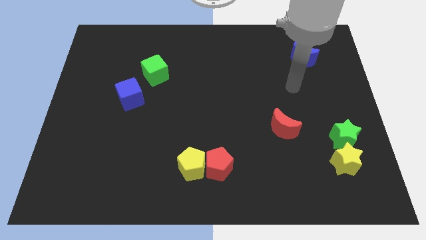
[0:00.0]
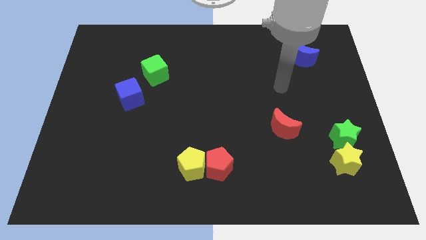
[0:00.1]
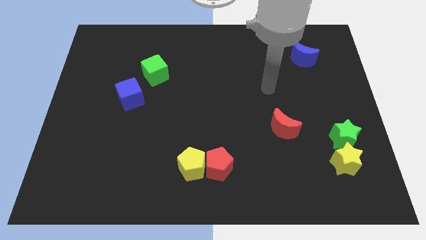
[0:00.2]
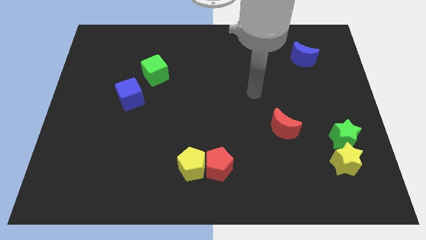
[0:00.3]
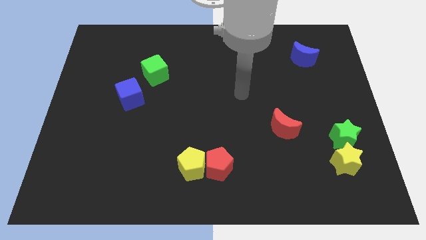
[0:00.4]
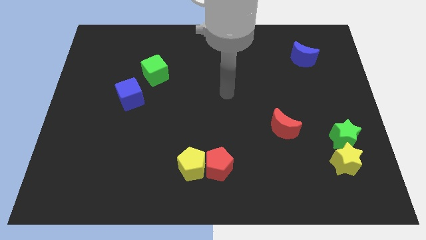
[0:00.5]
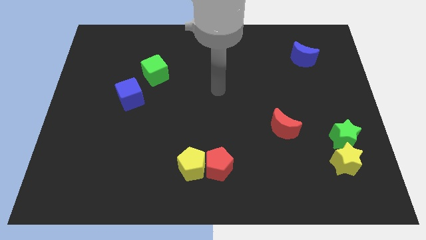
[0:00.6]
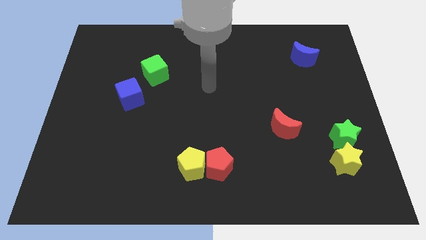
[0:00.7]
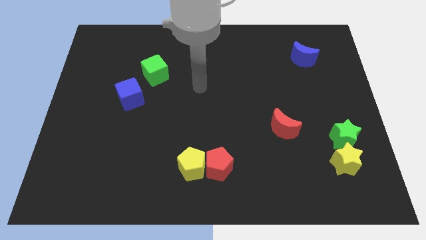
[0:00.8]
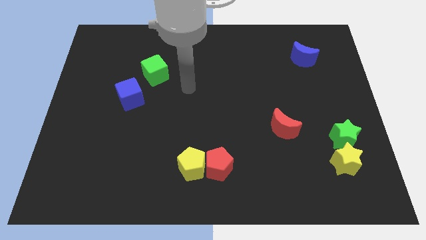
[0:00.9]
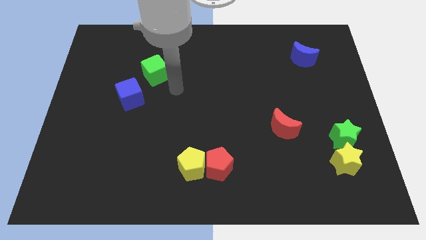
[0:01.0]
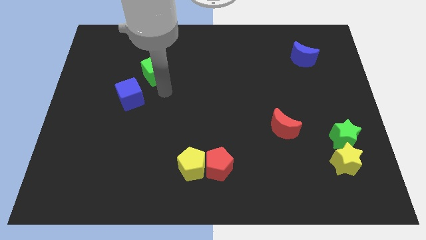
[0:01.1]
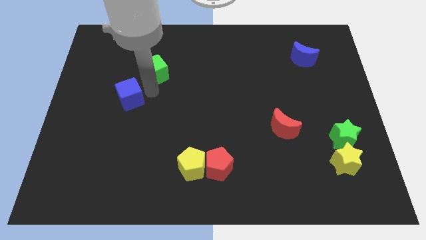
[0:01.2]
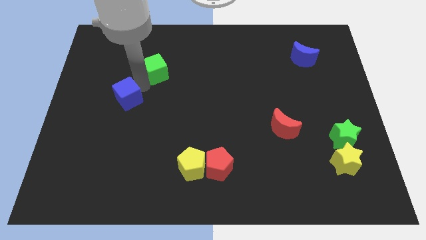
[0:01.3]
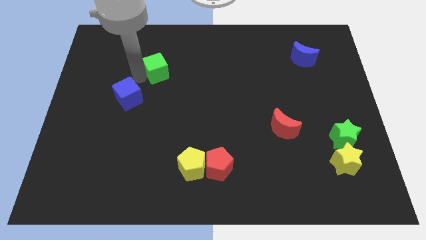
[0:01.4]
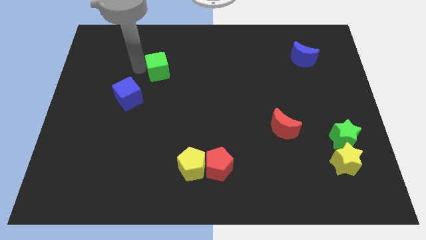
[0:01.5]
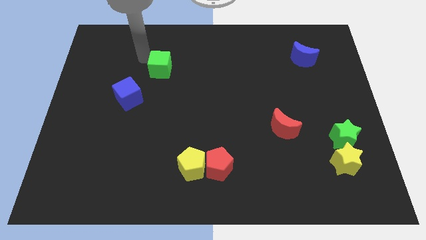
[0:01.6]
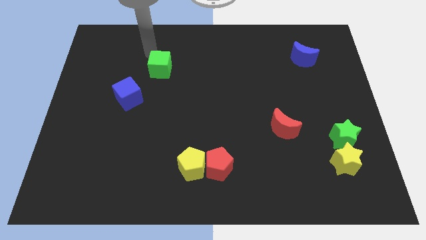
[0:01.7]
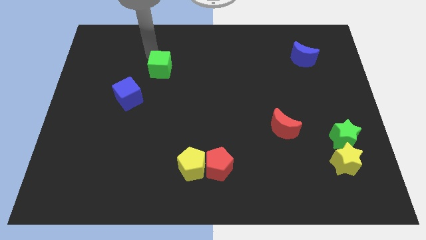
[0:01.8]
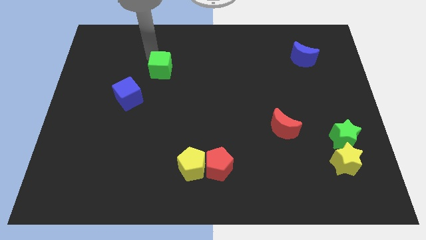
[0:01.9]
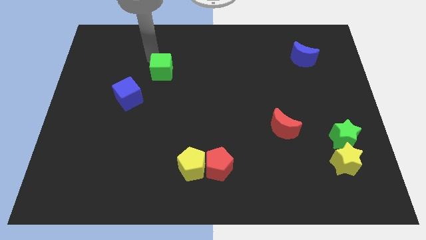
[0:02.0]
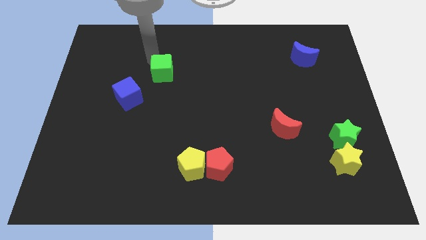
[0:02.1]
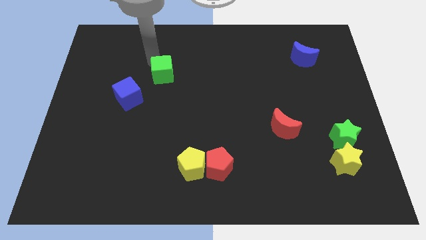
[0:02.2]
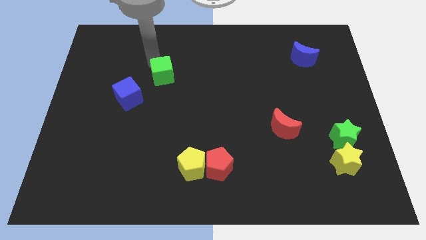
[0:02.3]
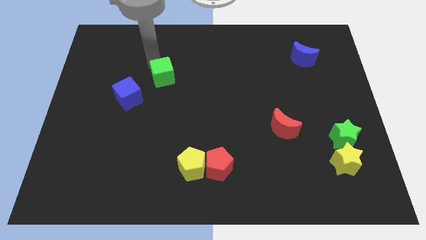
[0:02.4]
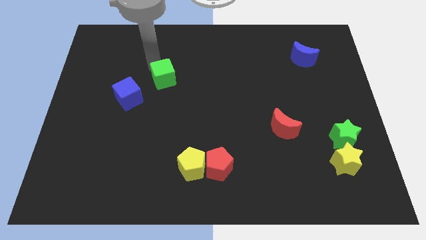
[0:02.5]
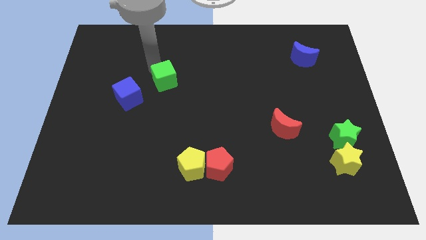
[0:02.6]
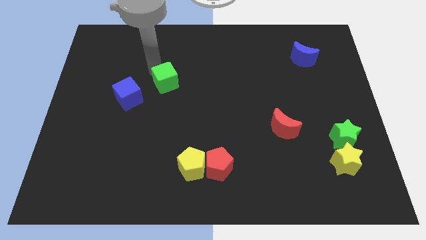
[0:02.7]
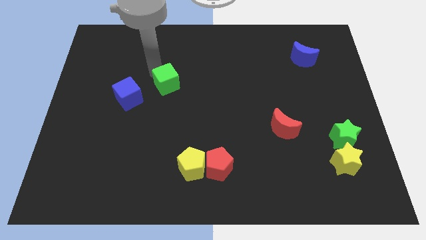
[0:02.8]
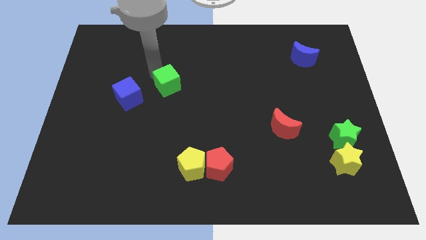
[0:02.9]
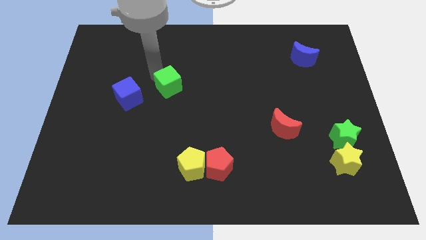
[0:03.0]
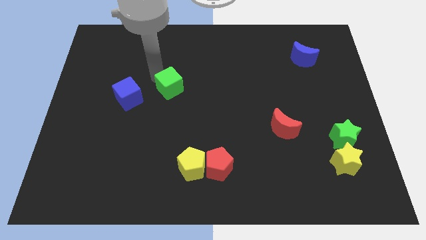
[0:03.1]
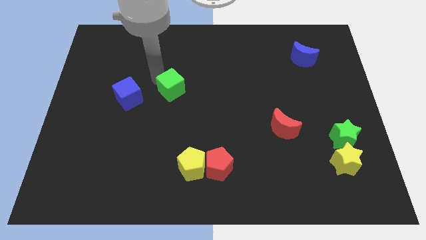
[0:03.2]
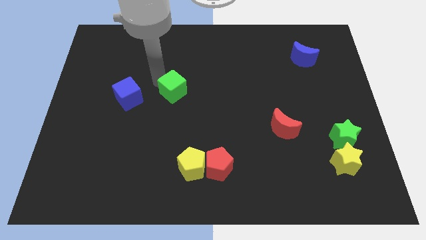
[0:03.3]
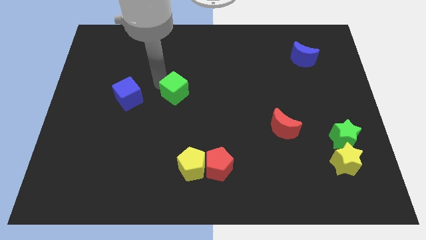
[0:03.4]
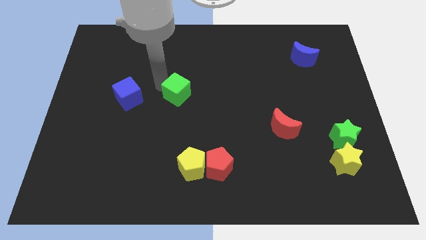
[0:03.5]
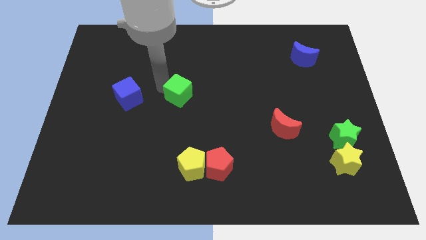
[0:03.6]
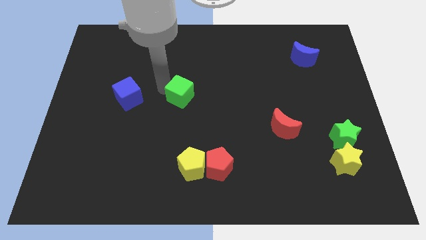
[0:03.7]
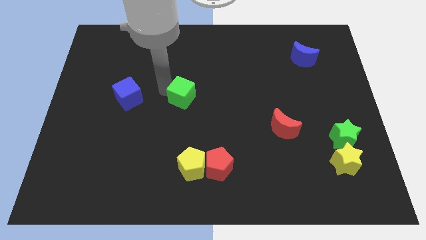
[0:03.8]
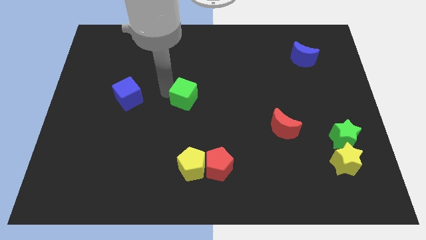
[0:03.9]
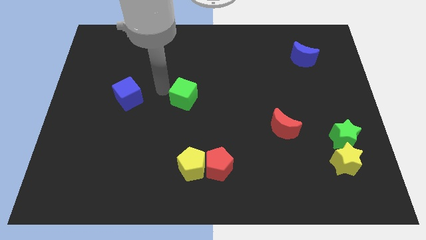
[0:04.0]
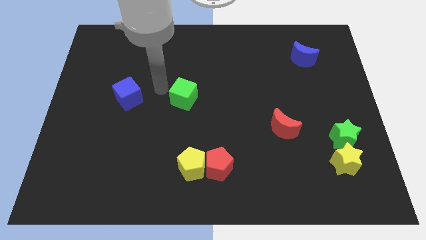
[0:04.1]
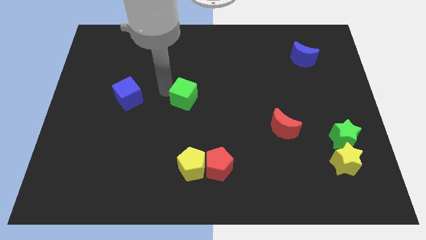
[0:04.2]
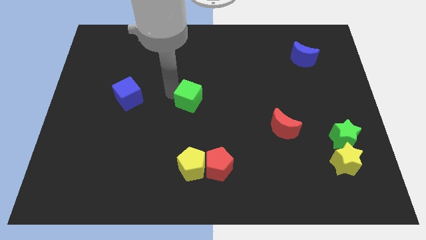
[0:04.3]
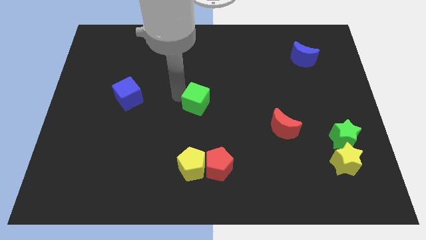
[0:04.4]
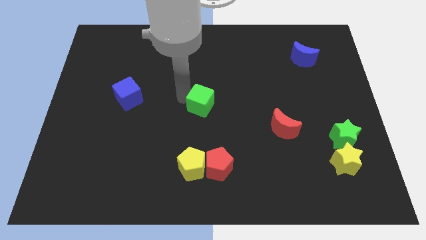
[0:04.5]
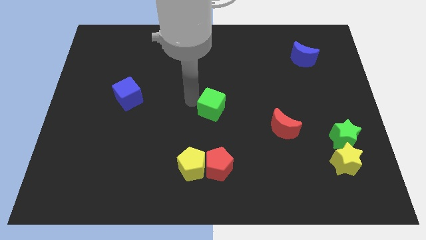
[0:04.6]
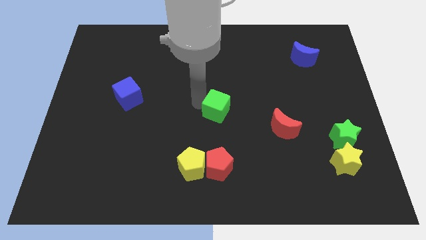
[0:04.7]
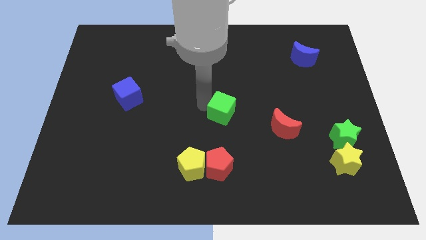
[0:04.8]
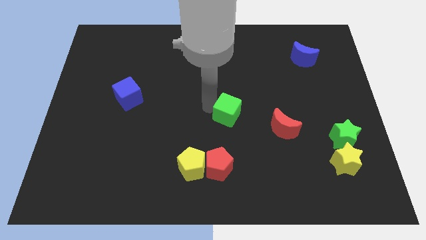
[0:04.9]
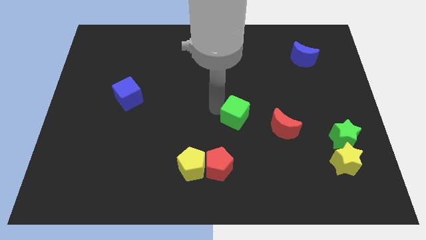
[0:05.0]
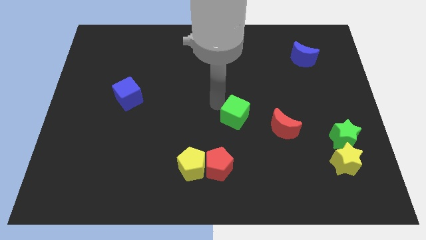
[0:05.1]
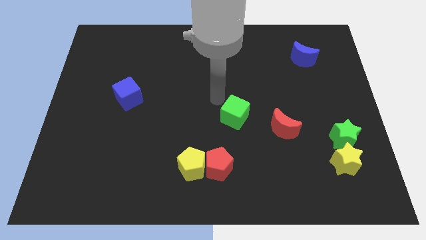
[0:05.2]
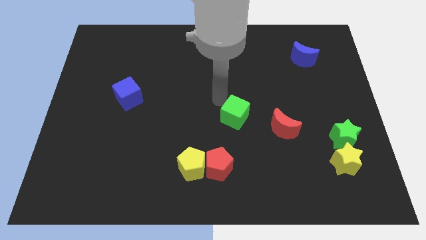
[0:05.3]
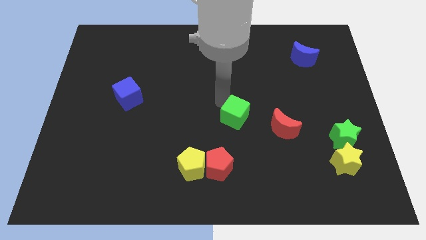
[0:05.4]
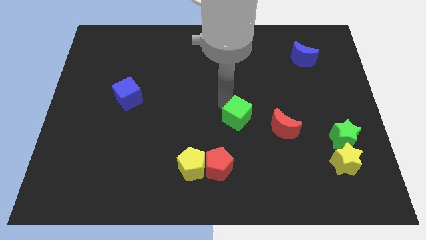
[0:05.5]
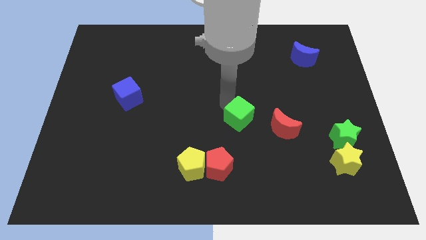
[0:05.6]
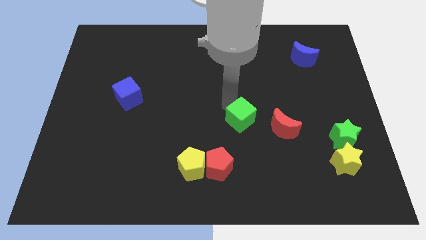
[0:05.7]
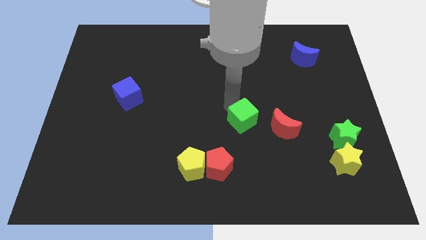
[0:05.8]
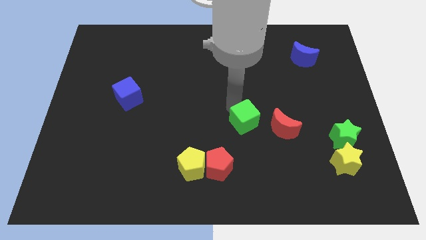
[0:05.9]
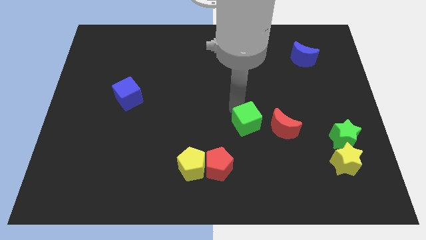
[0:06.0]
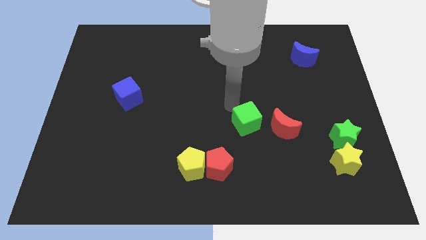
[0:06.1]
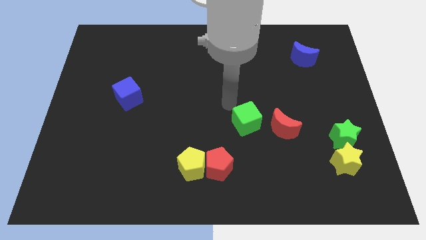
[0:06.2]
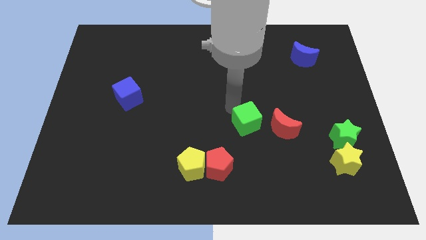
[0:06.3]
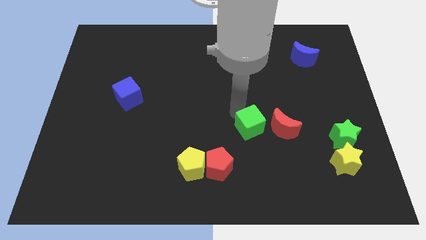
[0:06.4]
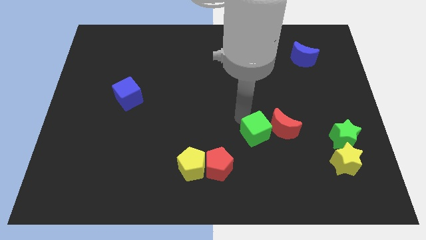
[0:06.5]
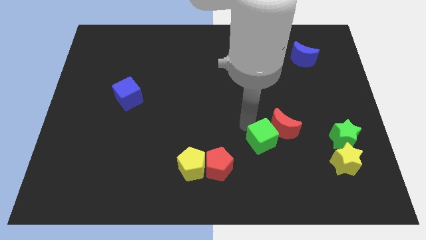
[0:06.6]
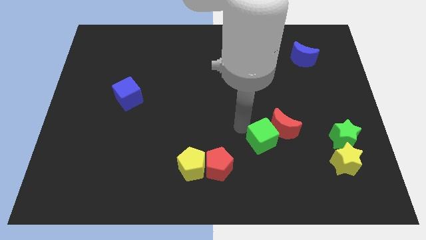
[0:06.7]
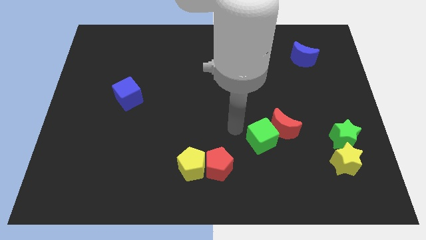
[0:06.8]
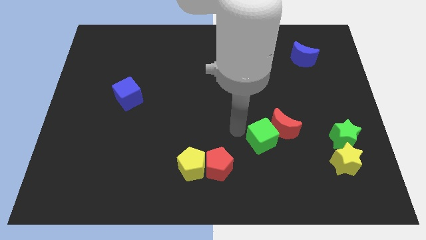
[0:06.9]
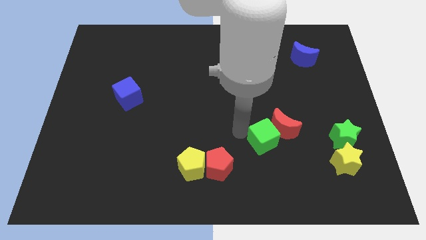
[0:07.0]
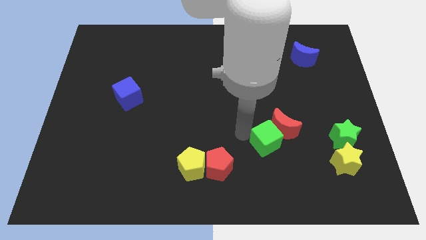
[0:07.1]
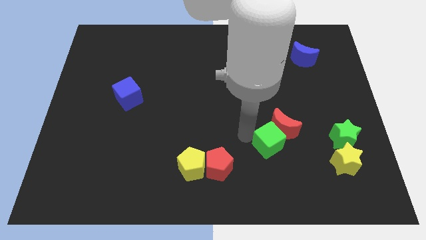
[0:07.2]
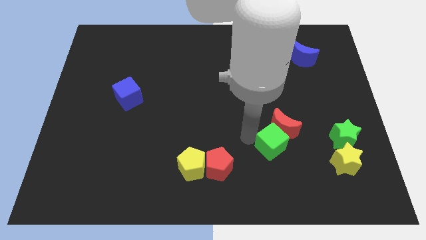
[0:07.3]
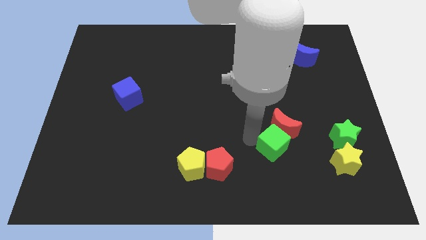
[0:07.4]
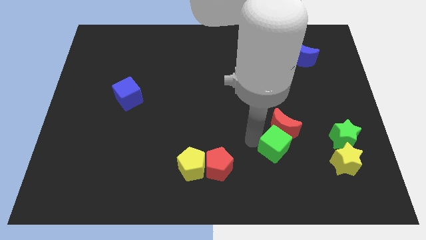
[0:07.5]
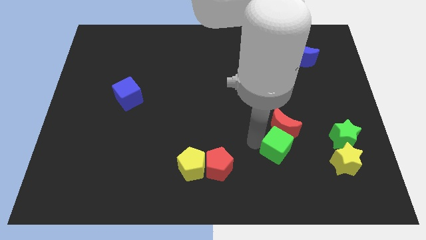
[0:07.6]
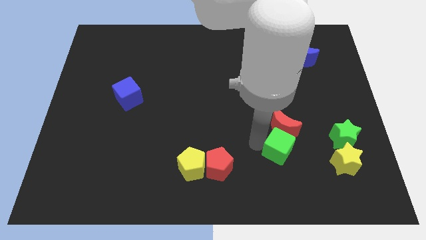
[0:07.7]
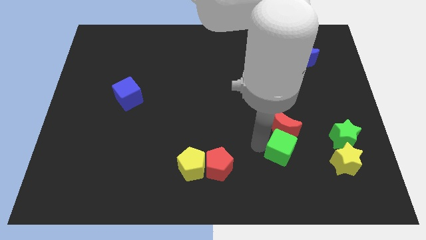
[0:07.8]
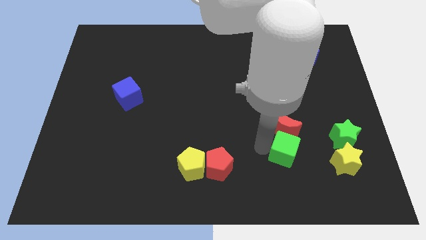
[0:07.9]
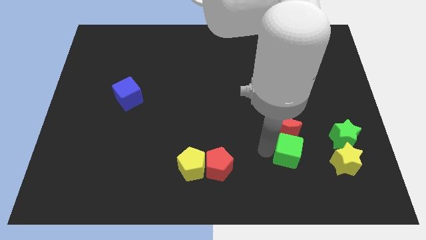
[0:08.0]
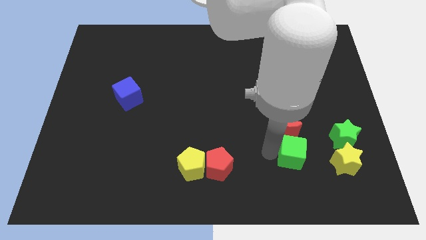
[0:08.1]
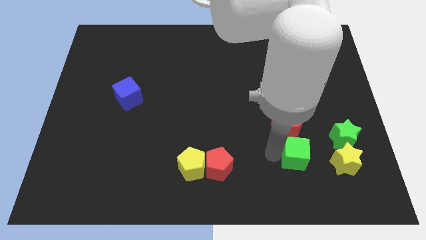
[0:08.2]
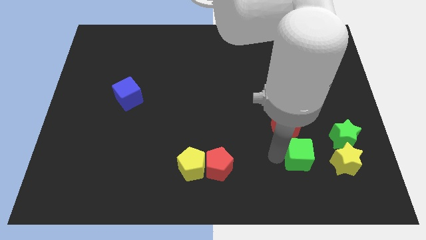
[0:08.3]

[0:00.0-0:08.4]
move the green cube diagonally down and to the left of the green star
